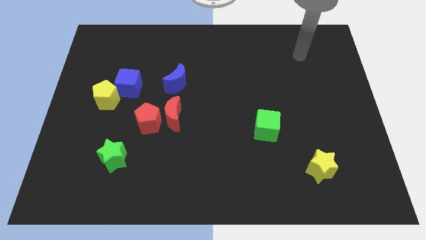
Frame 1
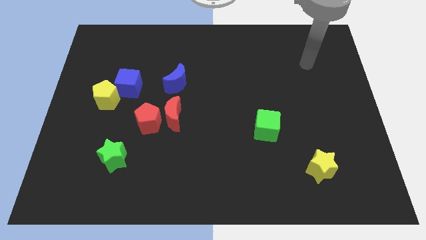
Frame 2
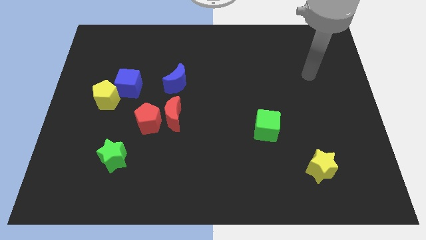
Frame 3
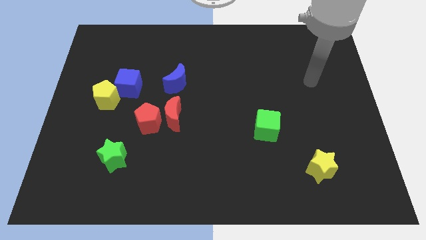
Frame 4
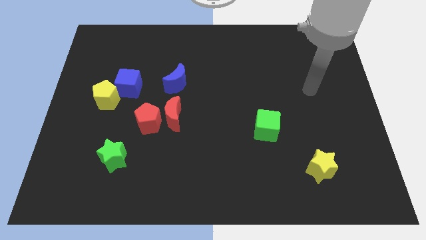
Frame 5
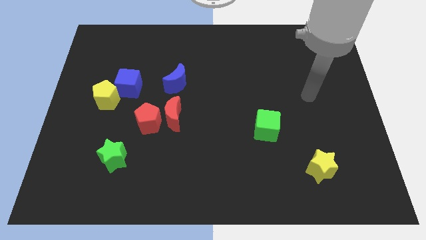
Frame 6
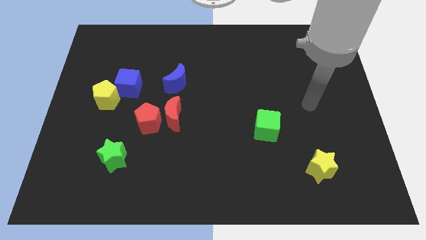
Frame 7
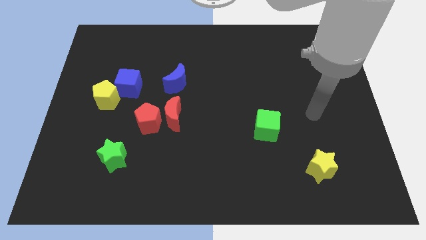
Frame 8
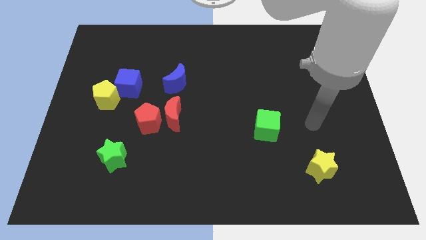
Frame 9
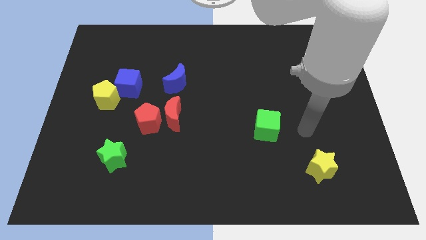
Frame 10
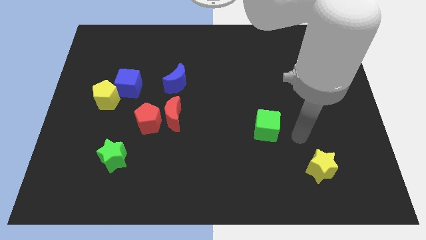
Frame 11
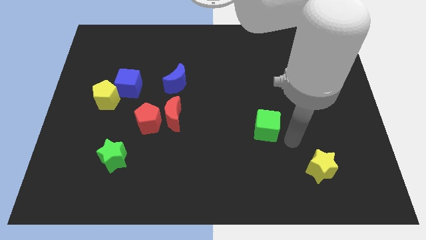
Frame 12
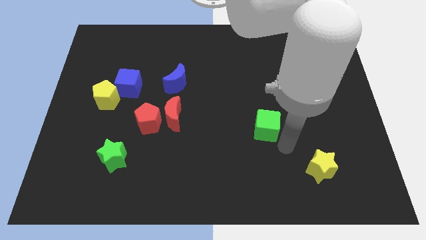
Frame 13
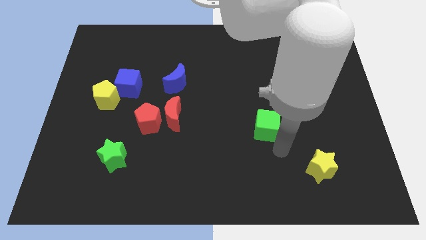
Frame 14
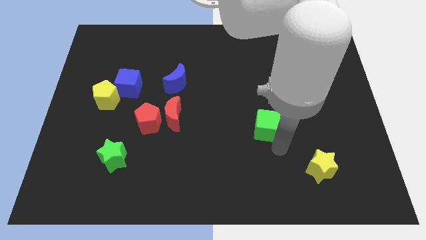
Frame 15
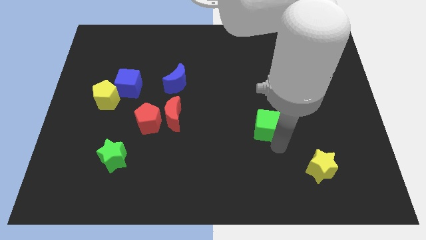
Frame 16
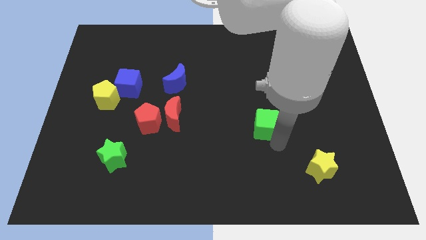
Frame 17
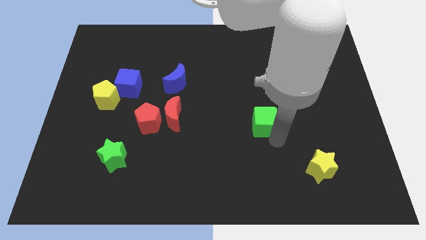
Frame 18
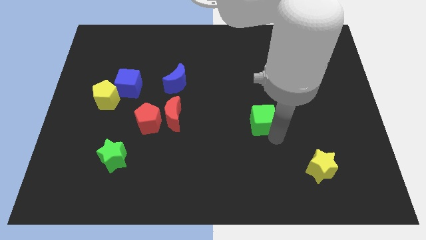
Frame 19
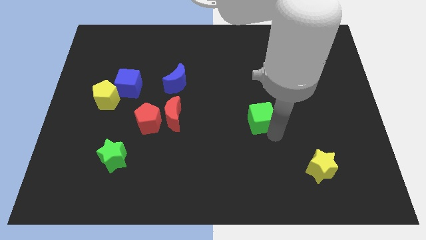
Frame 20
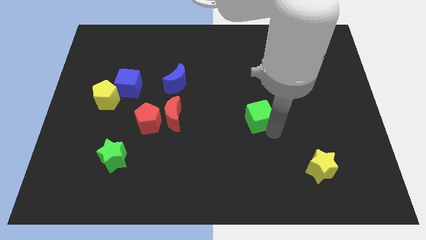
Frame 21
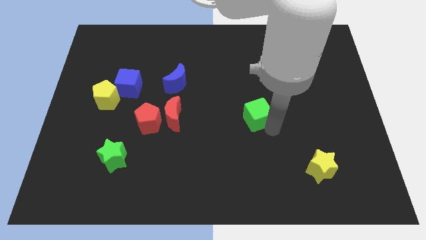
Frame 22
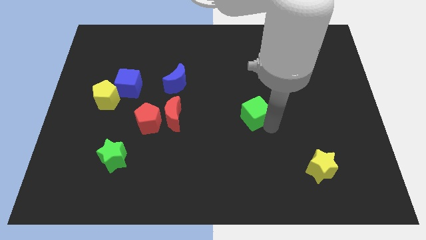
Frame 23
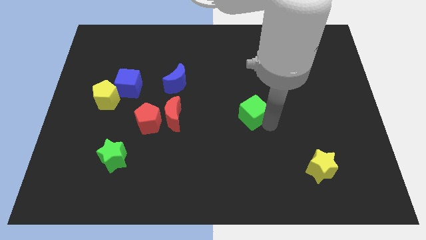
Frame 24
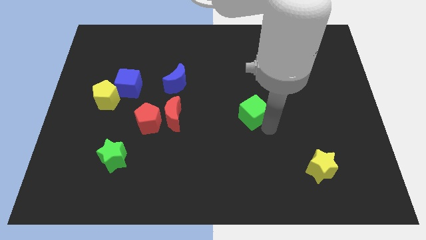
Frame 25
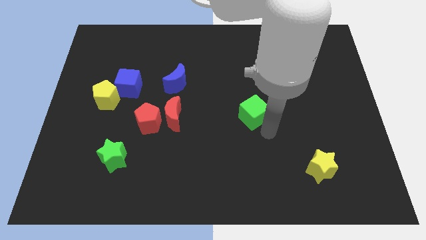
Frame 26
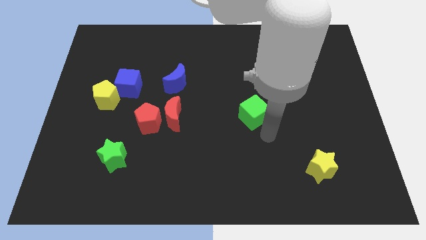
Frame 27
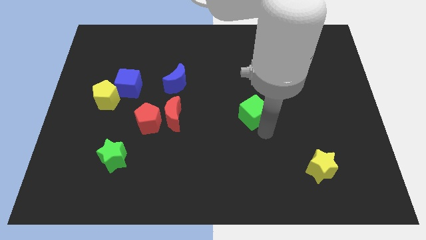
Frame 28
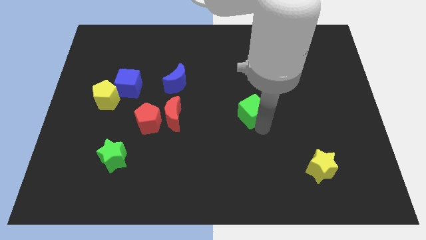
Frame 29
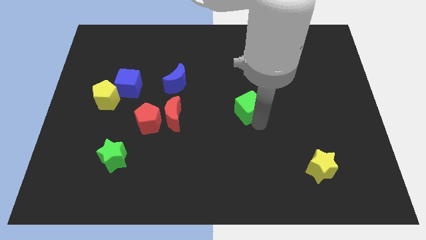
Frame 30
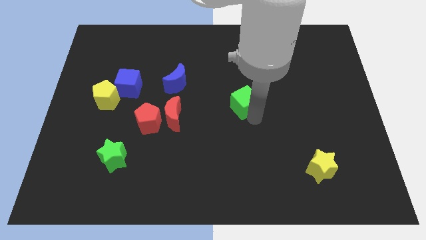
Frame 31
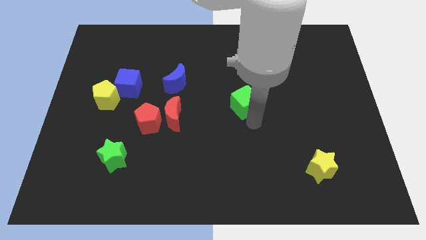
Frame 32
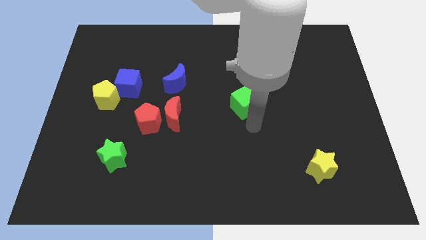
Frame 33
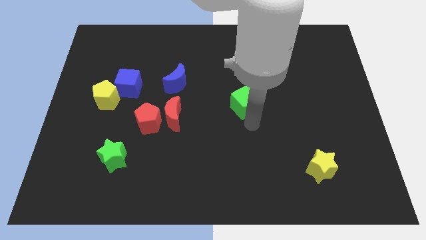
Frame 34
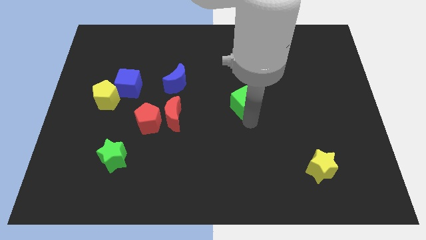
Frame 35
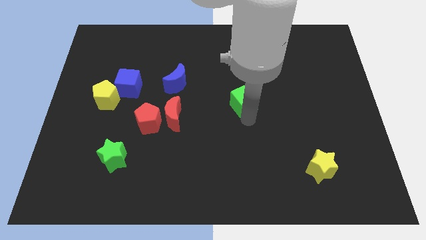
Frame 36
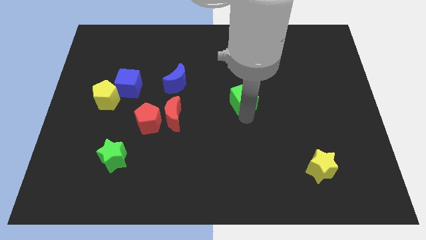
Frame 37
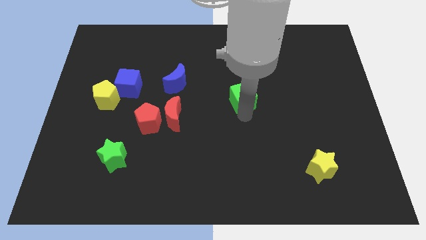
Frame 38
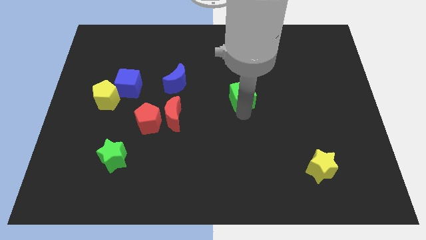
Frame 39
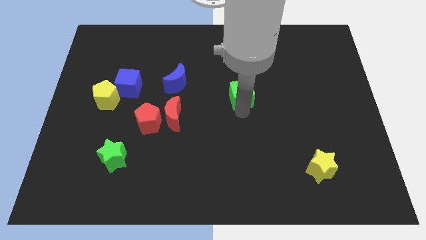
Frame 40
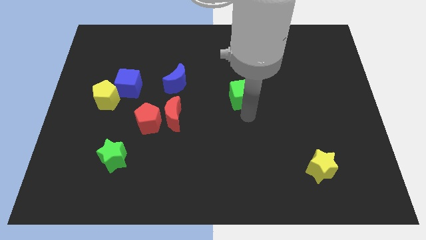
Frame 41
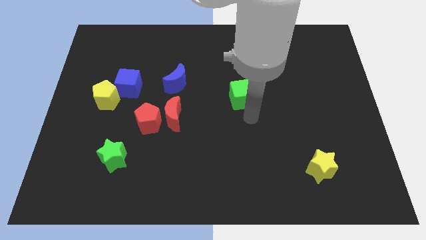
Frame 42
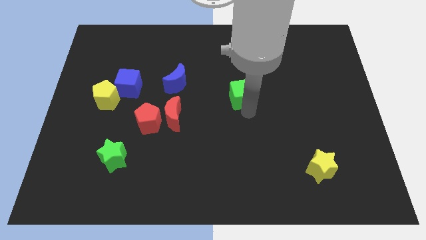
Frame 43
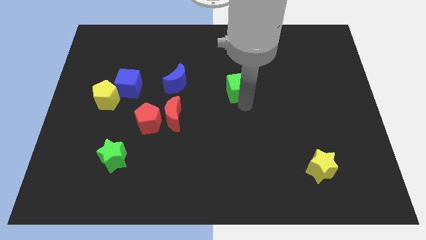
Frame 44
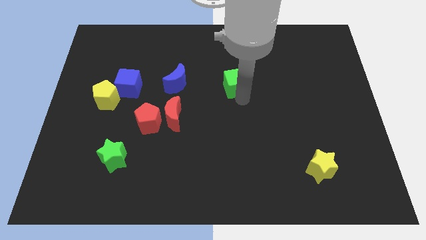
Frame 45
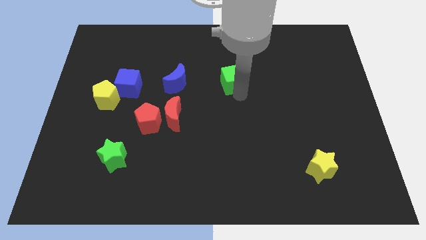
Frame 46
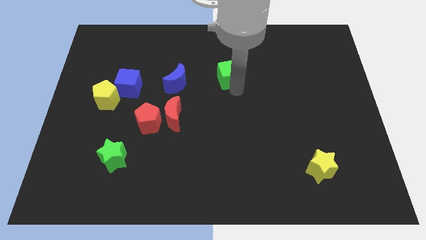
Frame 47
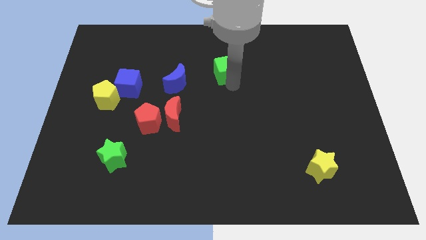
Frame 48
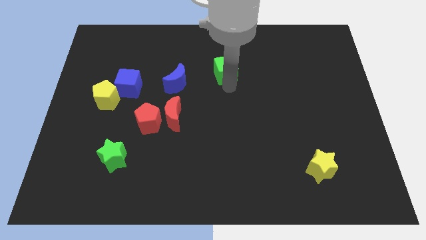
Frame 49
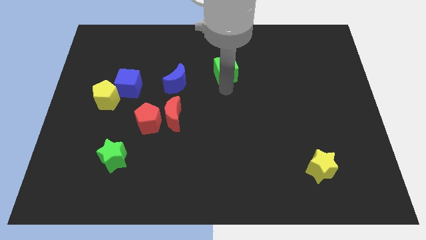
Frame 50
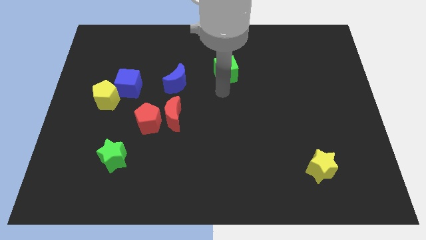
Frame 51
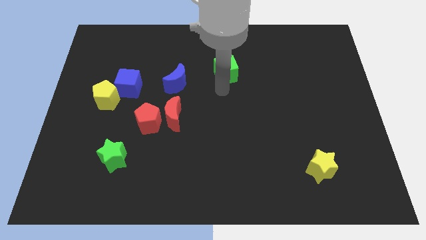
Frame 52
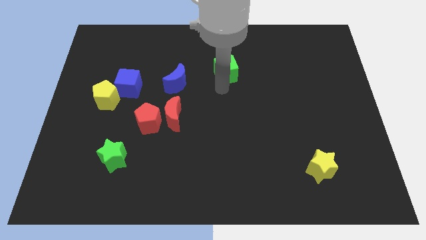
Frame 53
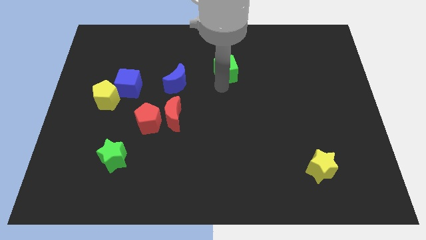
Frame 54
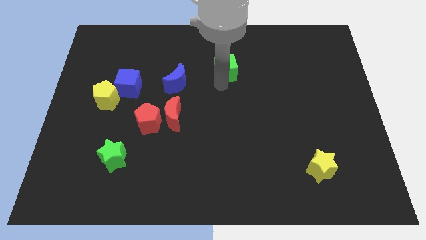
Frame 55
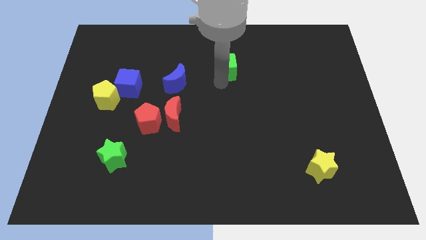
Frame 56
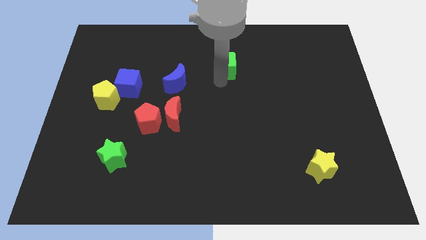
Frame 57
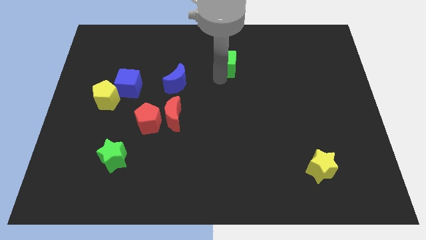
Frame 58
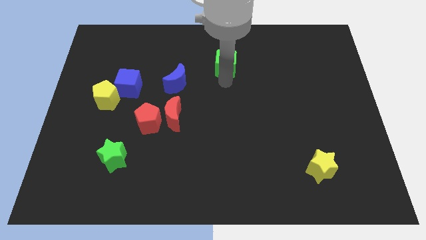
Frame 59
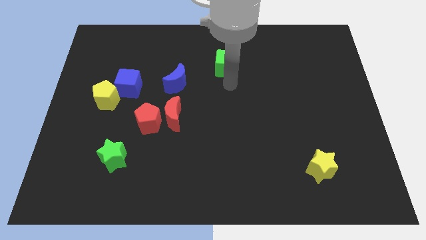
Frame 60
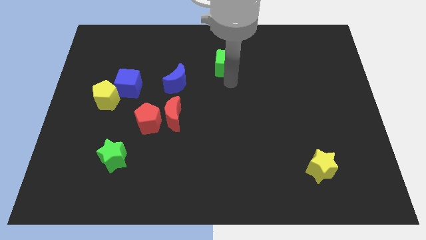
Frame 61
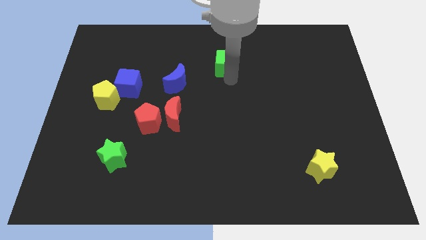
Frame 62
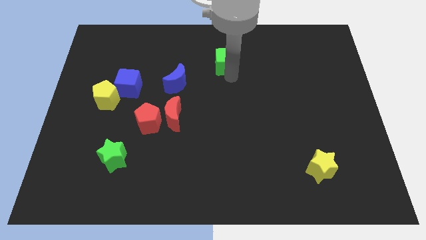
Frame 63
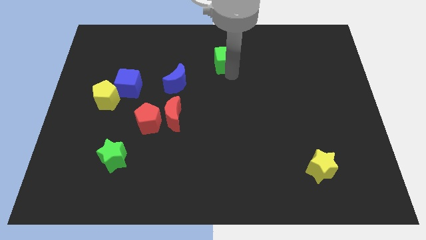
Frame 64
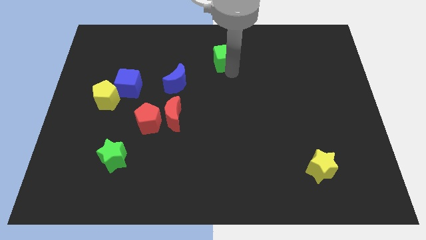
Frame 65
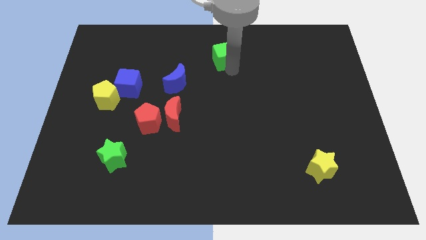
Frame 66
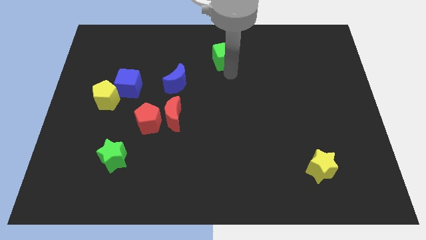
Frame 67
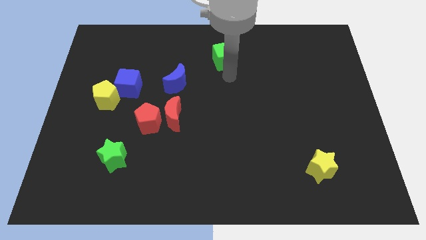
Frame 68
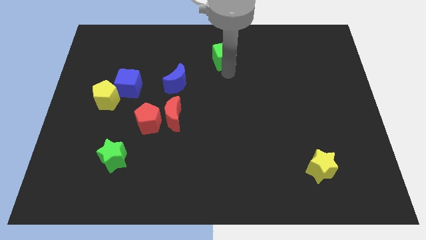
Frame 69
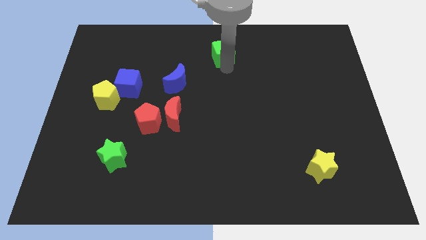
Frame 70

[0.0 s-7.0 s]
push the green cube to the towards your base
